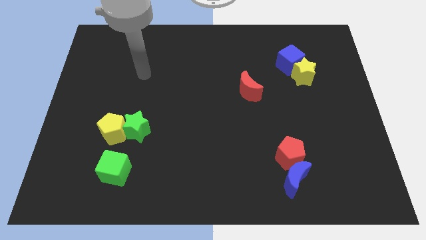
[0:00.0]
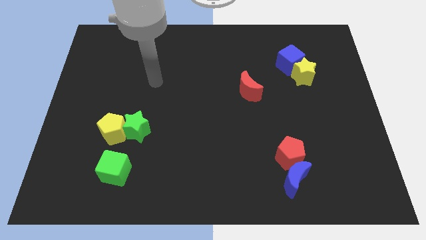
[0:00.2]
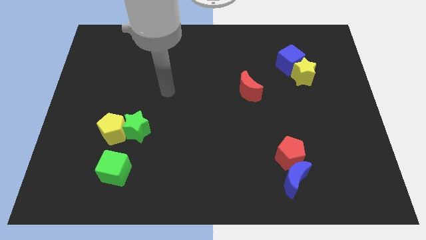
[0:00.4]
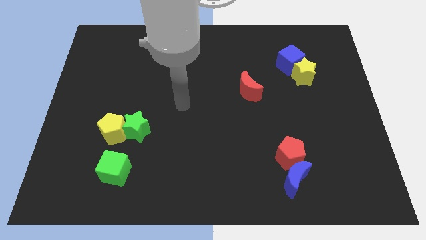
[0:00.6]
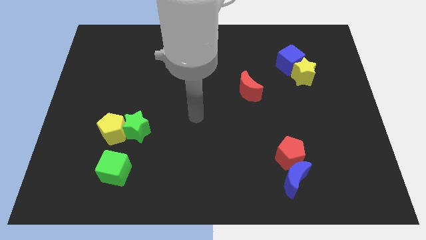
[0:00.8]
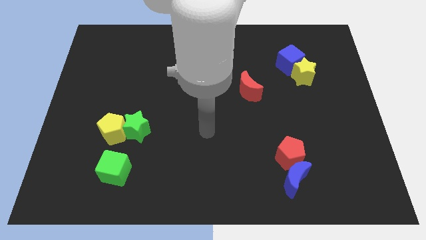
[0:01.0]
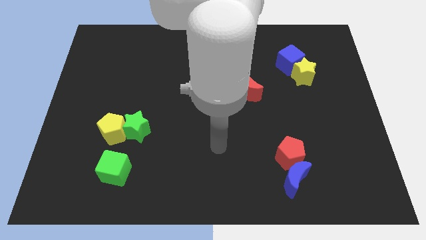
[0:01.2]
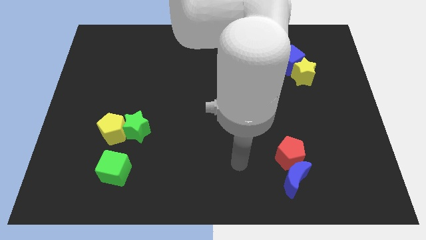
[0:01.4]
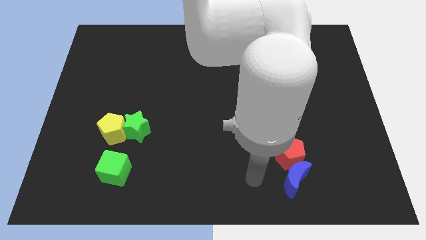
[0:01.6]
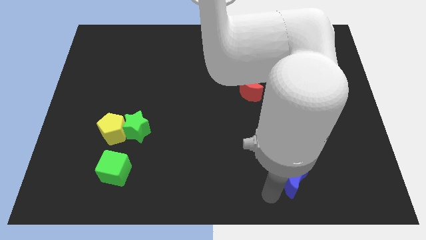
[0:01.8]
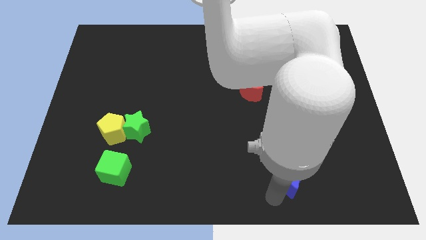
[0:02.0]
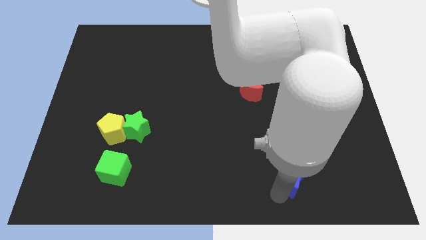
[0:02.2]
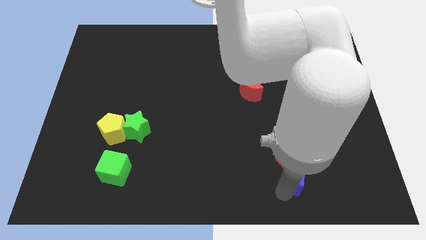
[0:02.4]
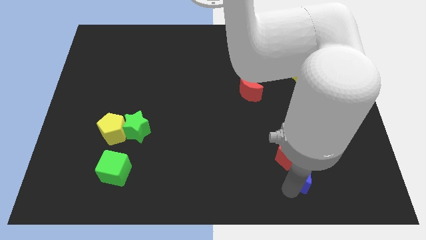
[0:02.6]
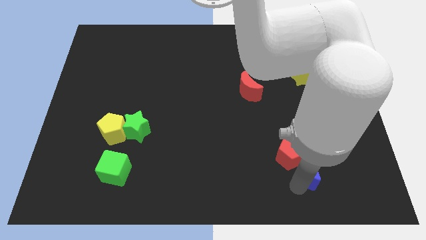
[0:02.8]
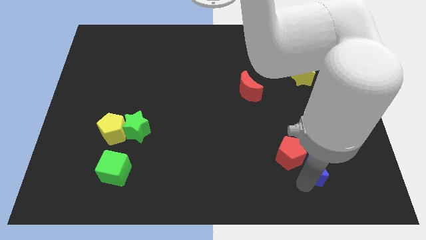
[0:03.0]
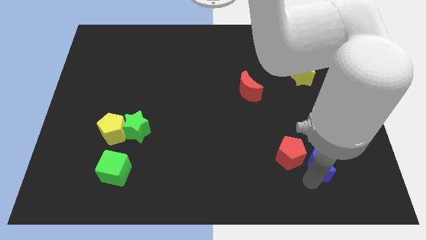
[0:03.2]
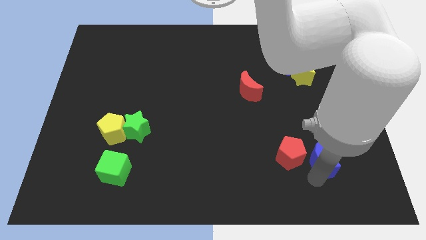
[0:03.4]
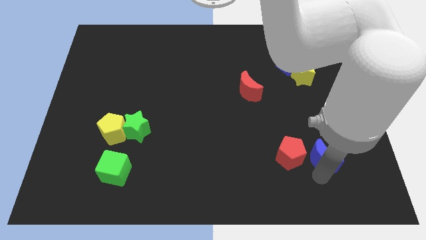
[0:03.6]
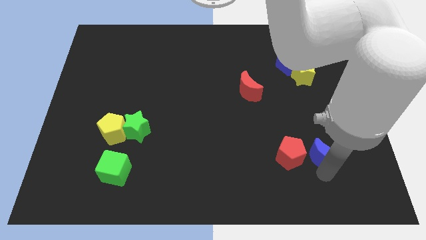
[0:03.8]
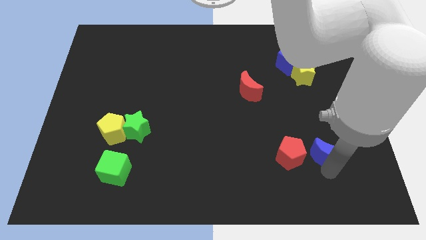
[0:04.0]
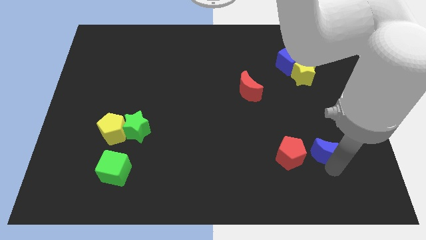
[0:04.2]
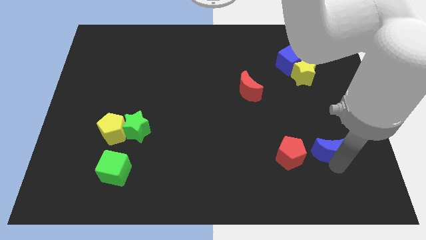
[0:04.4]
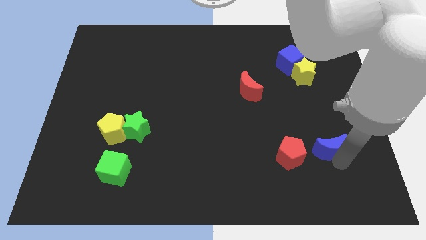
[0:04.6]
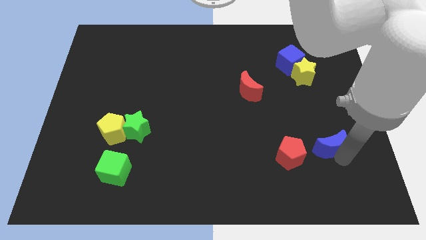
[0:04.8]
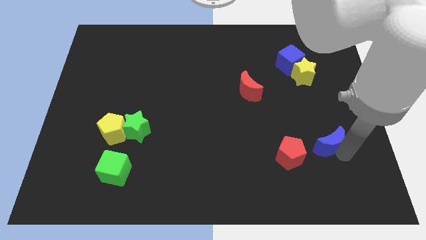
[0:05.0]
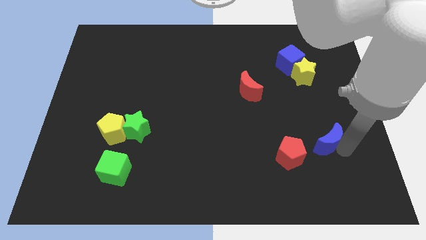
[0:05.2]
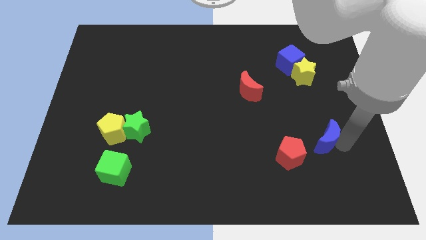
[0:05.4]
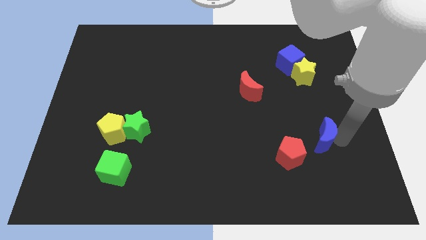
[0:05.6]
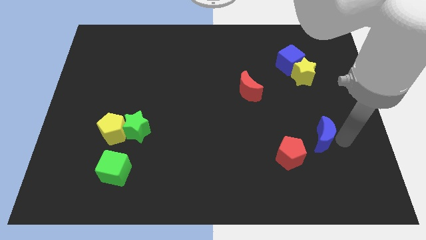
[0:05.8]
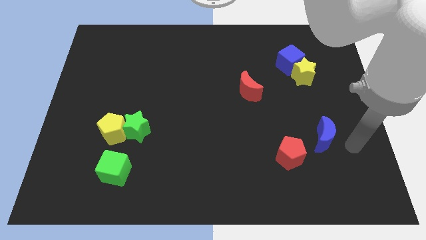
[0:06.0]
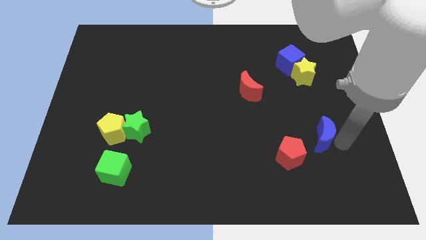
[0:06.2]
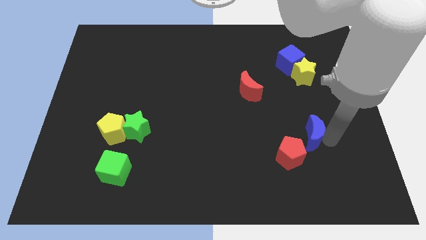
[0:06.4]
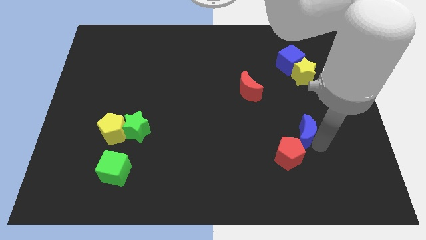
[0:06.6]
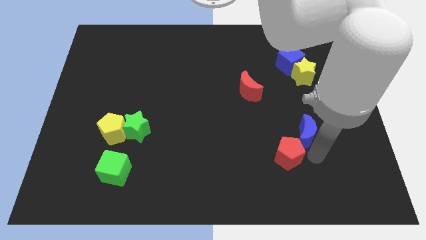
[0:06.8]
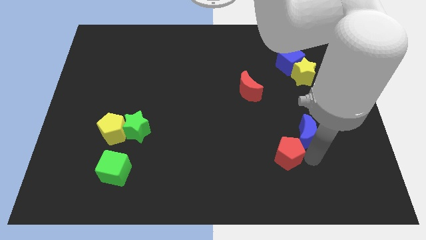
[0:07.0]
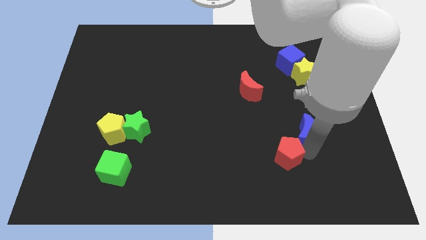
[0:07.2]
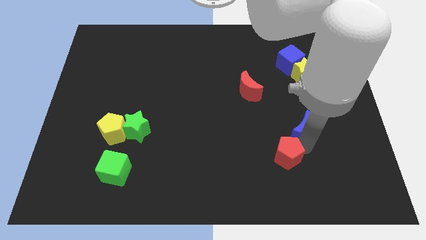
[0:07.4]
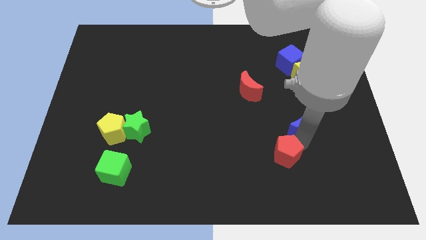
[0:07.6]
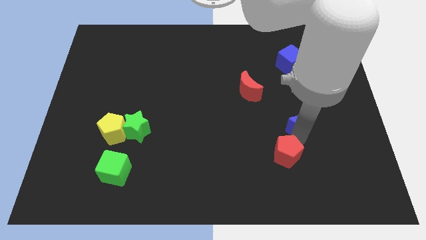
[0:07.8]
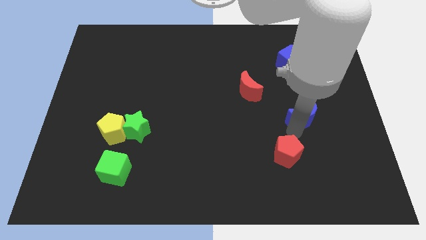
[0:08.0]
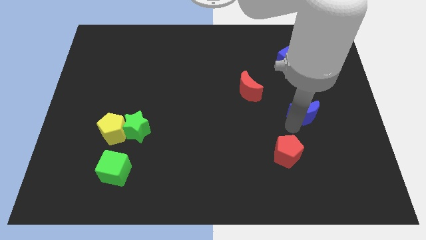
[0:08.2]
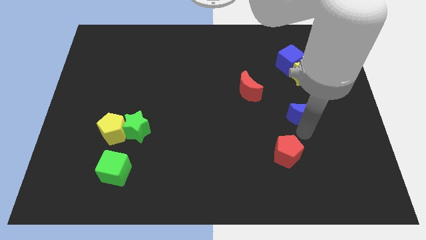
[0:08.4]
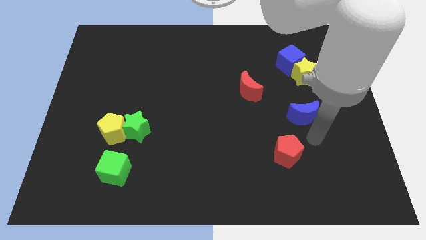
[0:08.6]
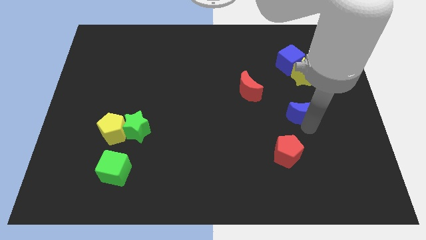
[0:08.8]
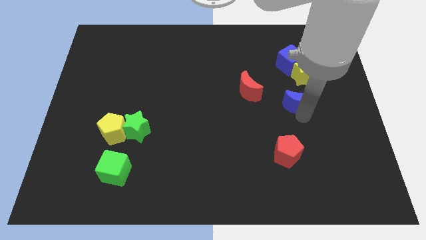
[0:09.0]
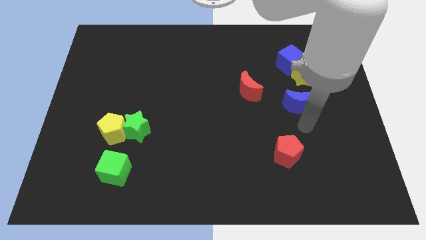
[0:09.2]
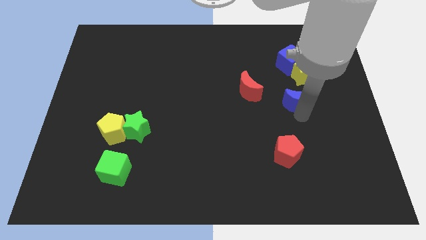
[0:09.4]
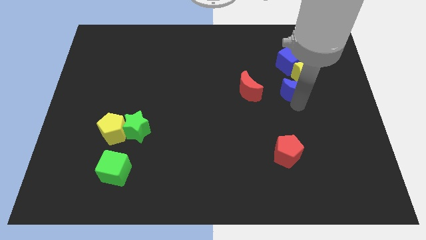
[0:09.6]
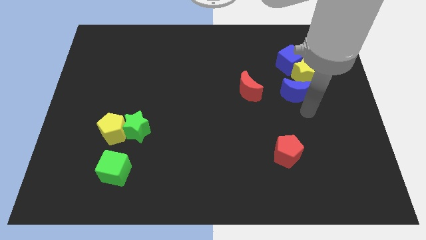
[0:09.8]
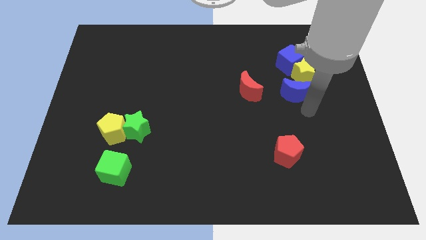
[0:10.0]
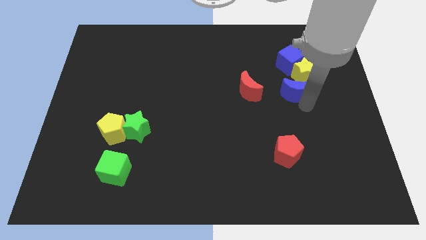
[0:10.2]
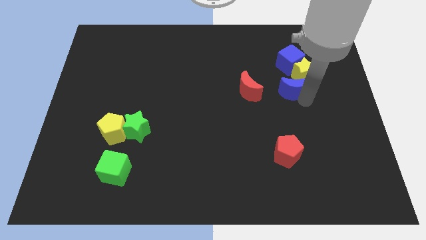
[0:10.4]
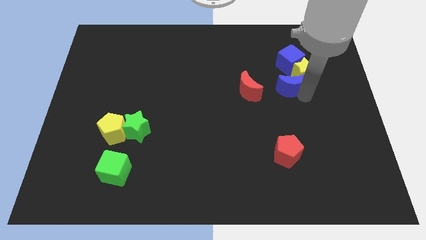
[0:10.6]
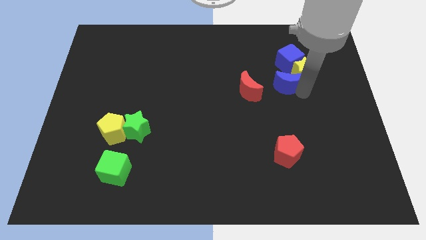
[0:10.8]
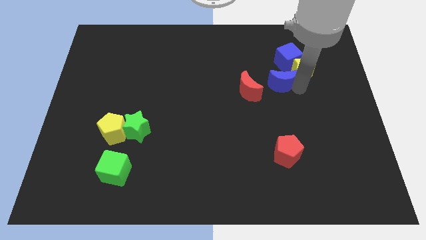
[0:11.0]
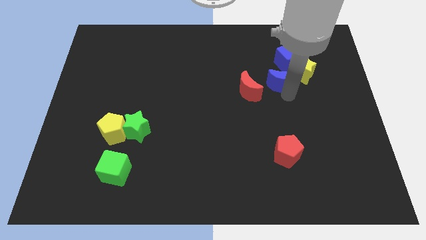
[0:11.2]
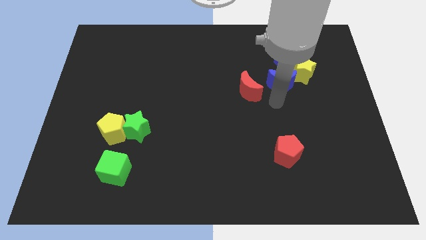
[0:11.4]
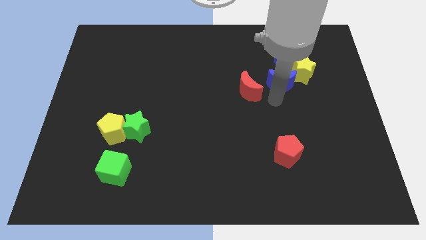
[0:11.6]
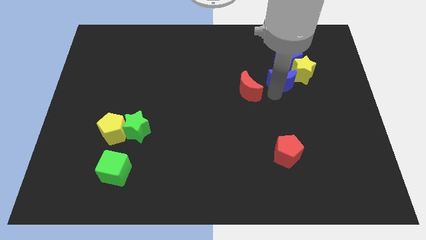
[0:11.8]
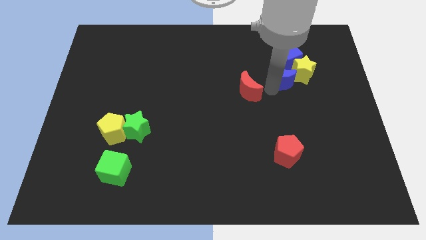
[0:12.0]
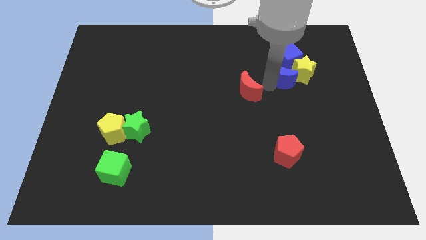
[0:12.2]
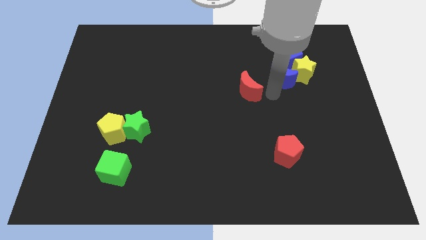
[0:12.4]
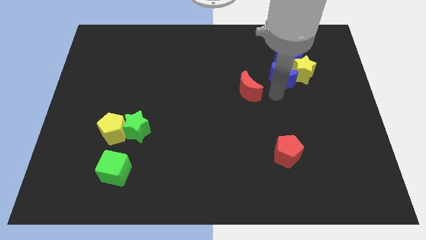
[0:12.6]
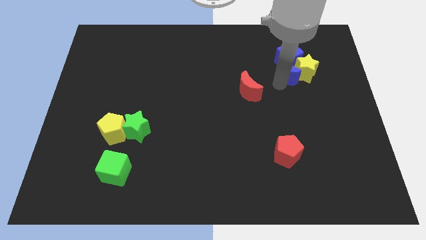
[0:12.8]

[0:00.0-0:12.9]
push the blue moon next to the blue cube
